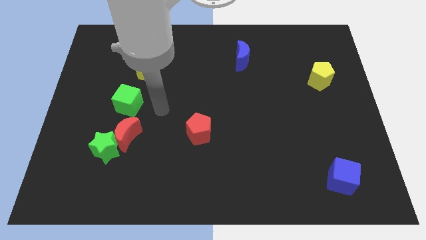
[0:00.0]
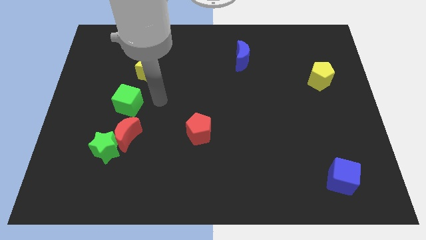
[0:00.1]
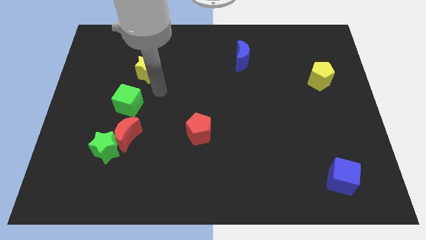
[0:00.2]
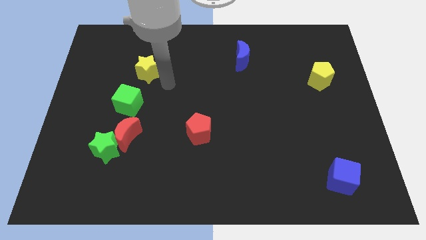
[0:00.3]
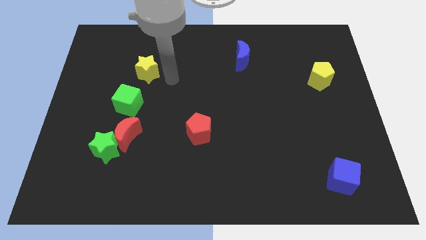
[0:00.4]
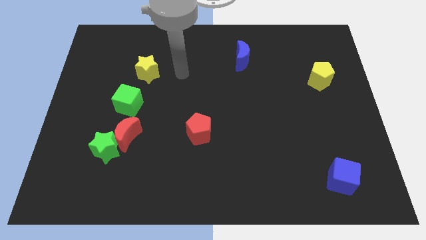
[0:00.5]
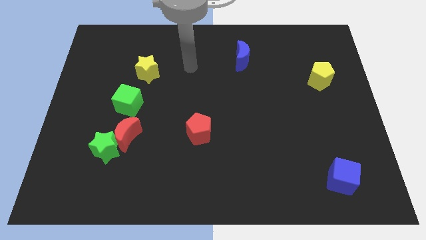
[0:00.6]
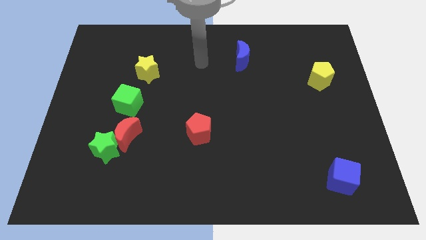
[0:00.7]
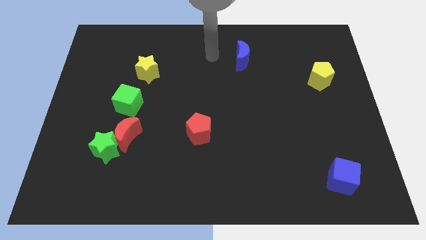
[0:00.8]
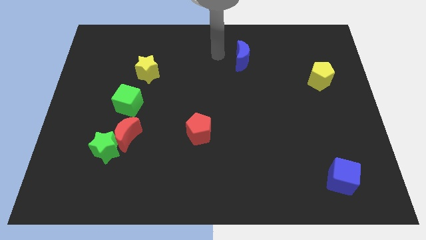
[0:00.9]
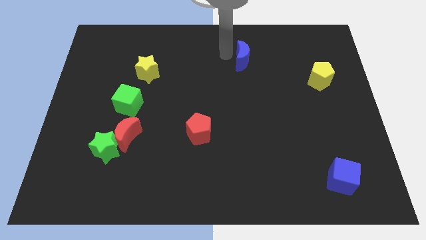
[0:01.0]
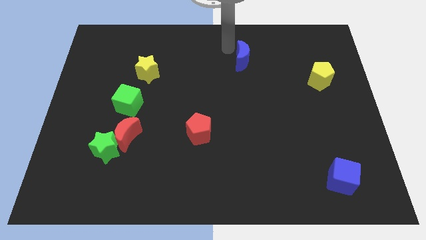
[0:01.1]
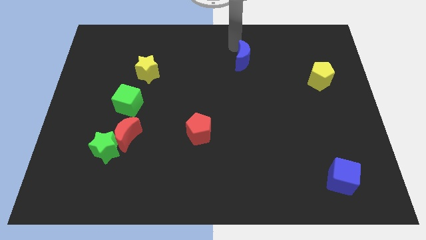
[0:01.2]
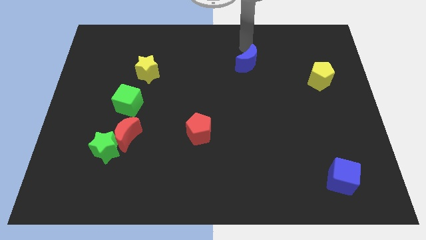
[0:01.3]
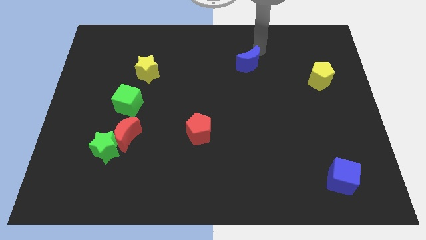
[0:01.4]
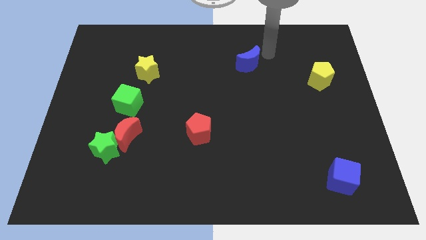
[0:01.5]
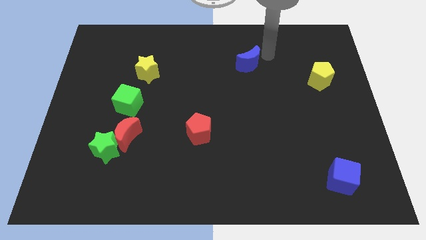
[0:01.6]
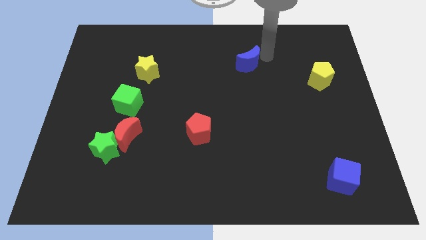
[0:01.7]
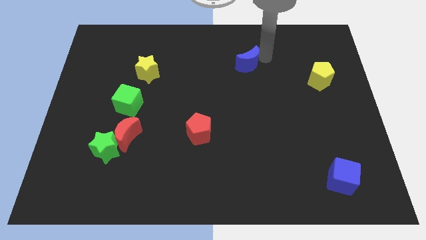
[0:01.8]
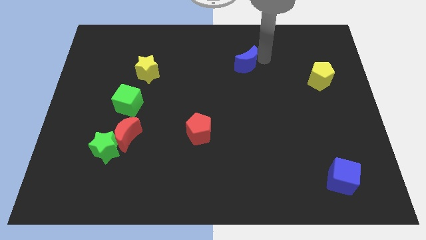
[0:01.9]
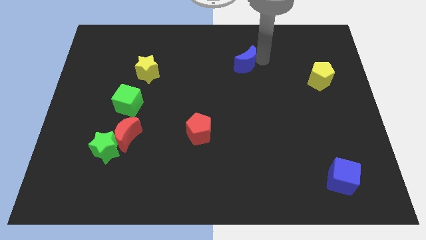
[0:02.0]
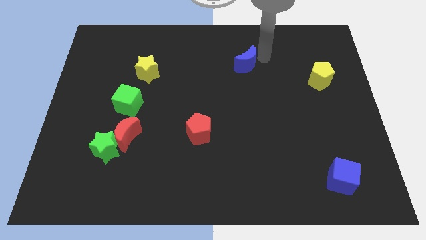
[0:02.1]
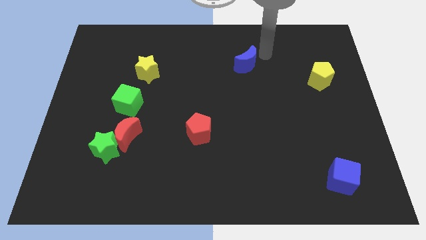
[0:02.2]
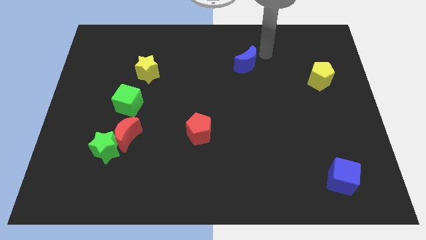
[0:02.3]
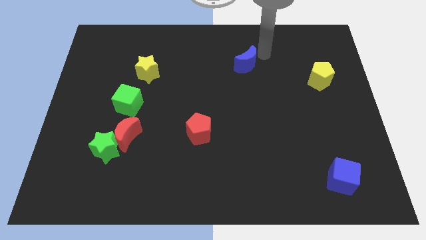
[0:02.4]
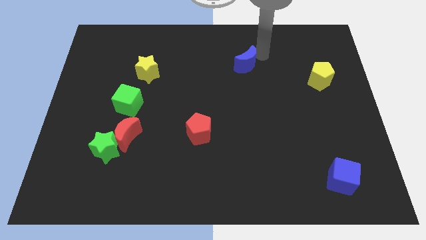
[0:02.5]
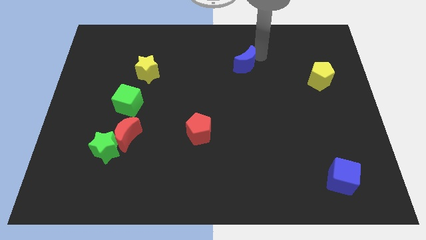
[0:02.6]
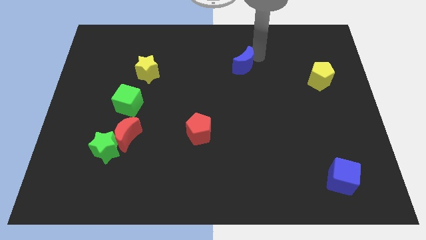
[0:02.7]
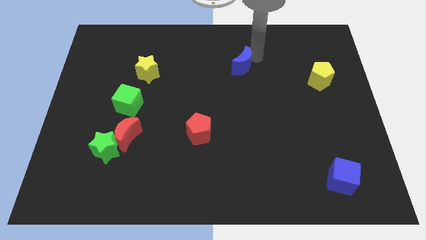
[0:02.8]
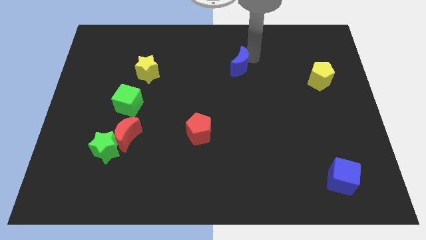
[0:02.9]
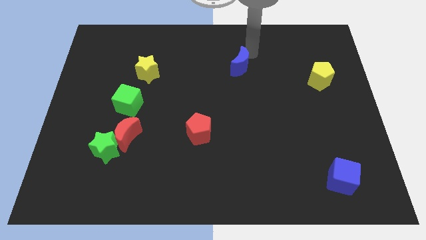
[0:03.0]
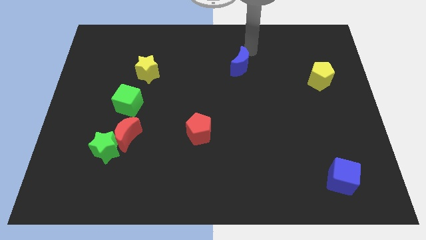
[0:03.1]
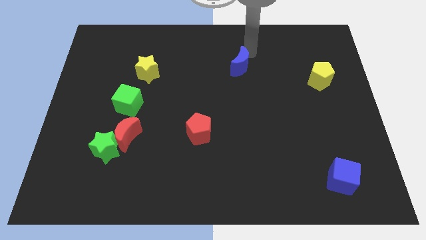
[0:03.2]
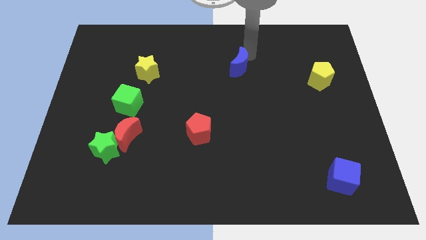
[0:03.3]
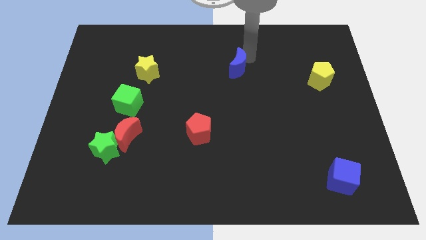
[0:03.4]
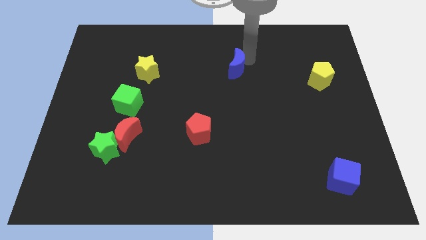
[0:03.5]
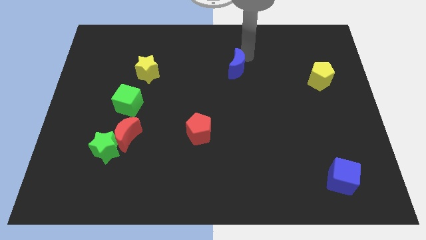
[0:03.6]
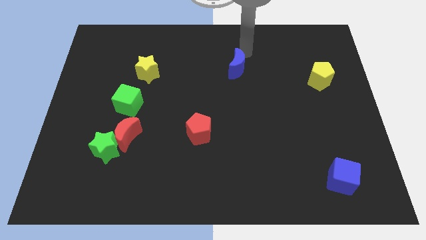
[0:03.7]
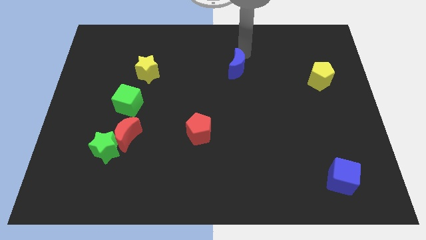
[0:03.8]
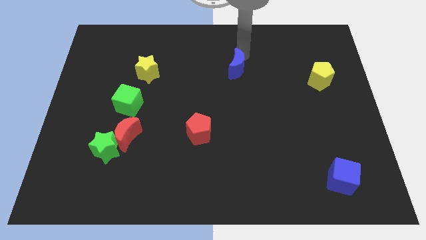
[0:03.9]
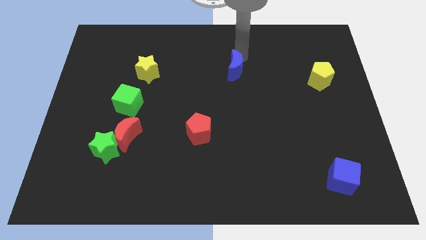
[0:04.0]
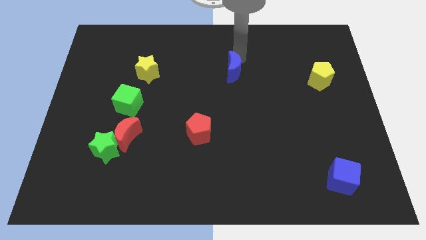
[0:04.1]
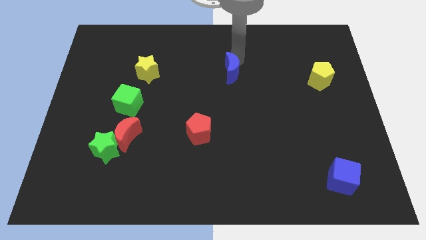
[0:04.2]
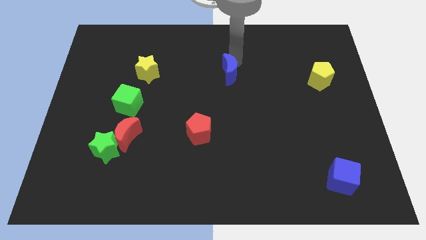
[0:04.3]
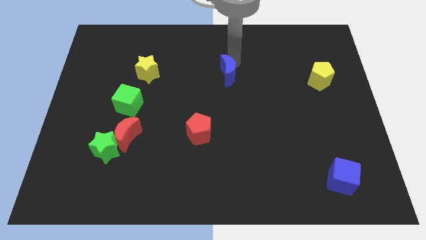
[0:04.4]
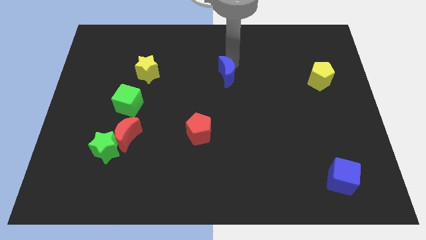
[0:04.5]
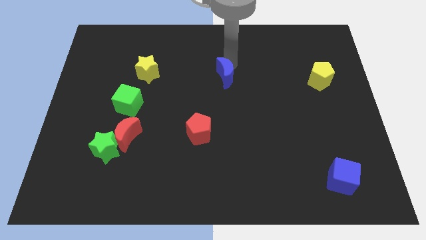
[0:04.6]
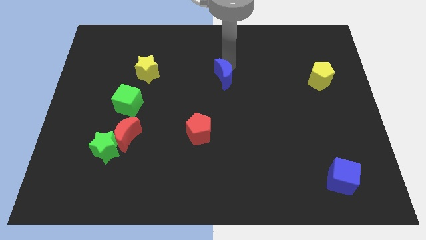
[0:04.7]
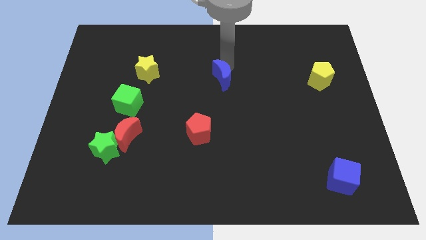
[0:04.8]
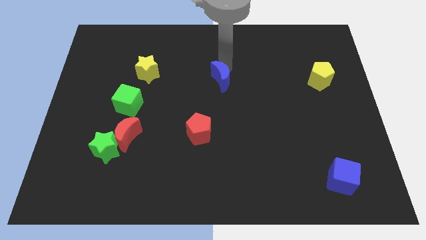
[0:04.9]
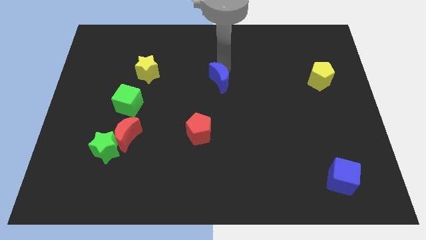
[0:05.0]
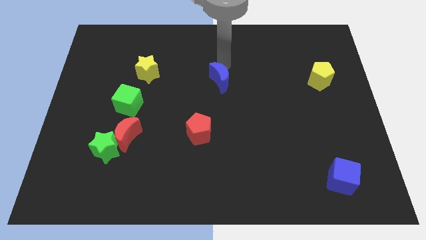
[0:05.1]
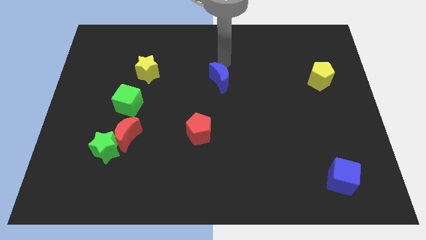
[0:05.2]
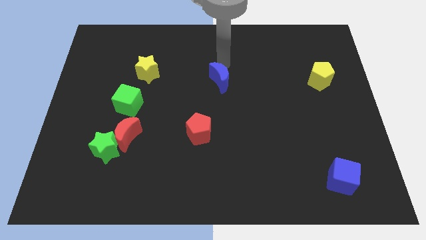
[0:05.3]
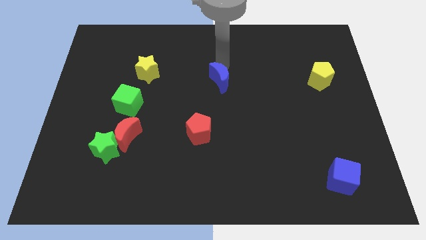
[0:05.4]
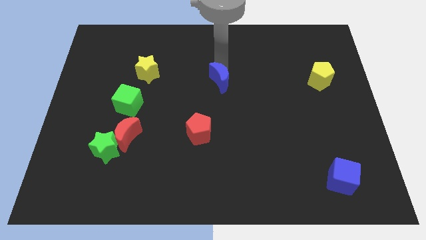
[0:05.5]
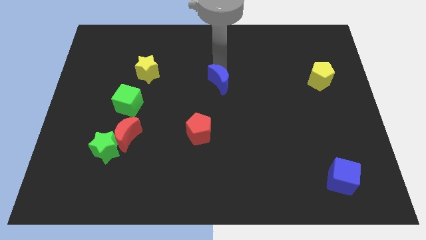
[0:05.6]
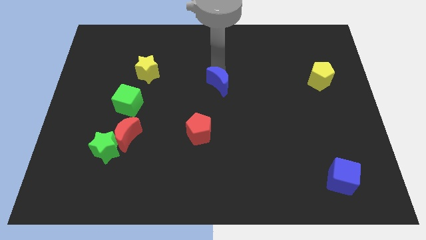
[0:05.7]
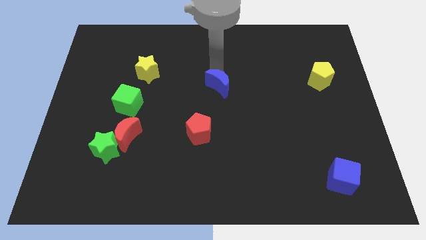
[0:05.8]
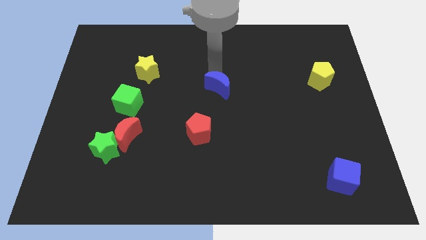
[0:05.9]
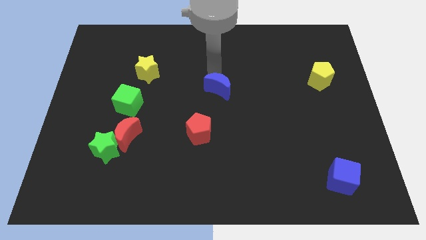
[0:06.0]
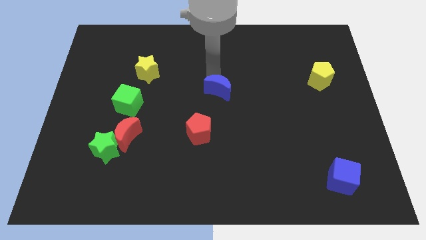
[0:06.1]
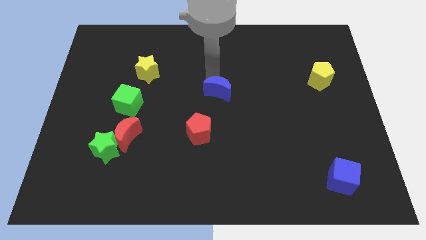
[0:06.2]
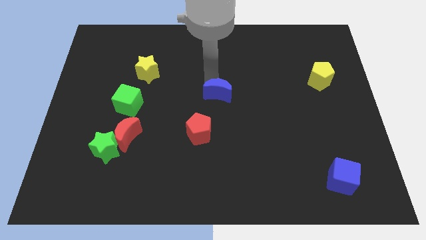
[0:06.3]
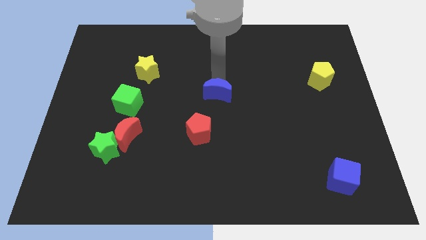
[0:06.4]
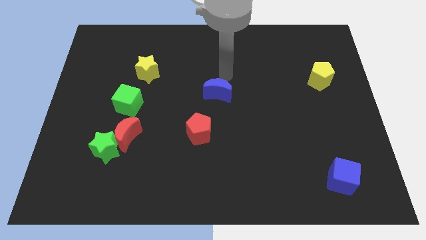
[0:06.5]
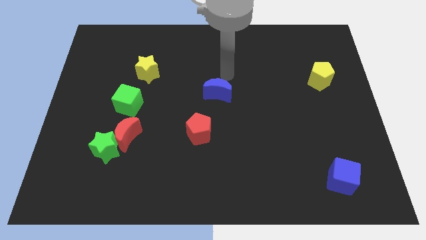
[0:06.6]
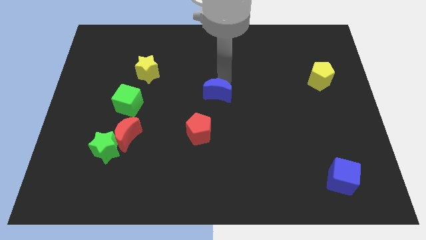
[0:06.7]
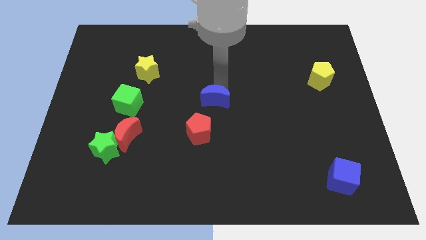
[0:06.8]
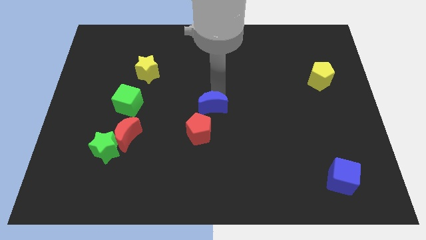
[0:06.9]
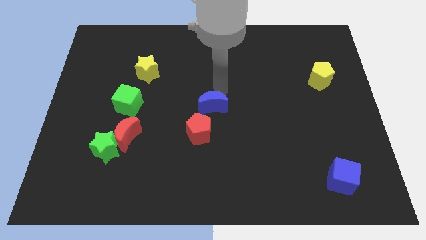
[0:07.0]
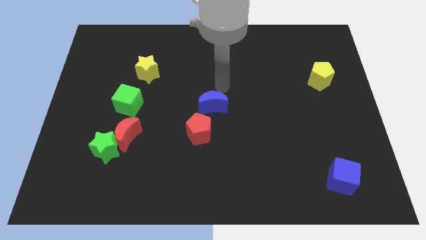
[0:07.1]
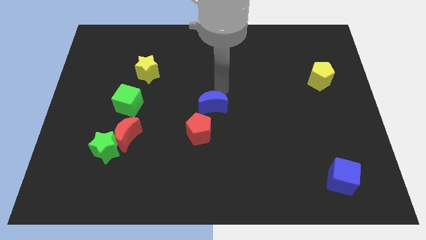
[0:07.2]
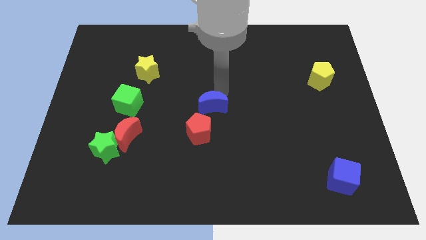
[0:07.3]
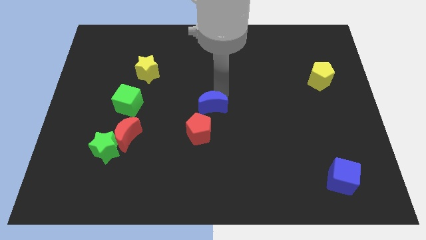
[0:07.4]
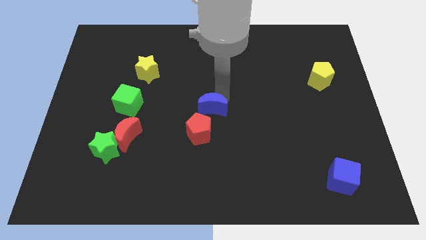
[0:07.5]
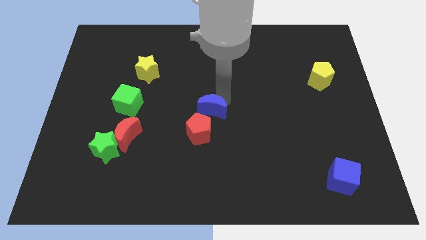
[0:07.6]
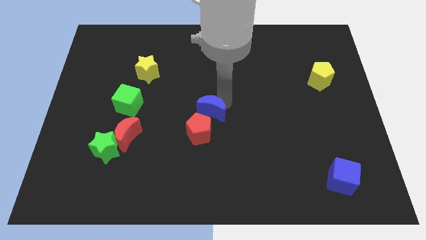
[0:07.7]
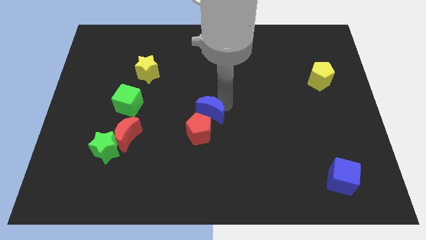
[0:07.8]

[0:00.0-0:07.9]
move the blue moon towards the red pentagon
